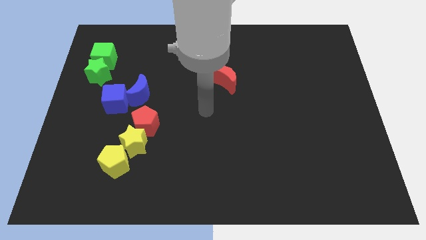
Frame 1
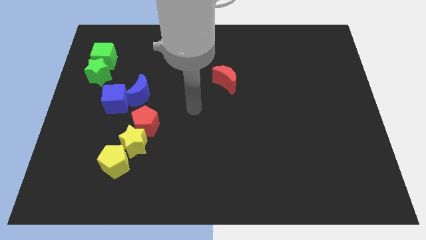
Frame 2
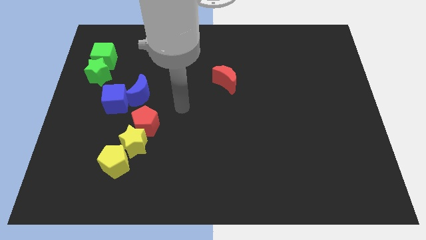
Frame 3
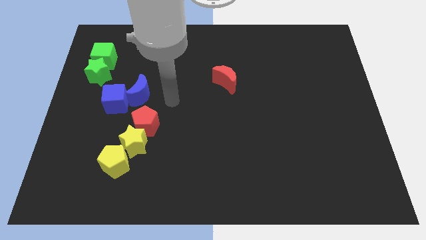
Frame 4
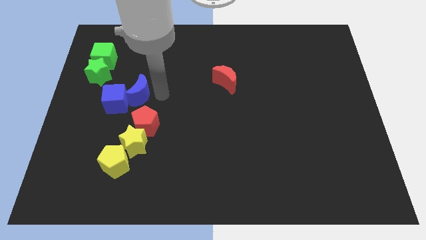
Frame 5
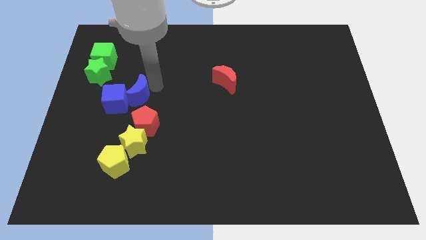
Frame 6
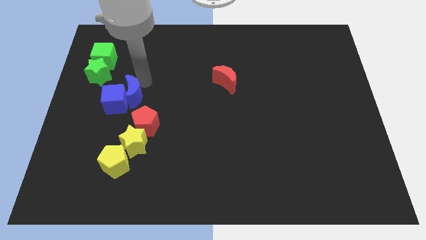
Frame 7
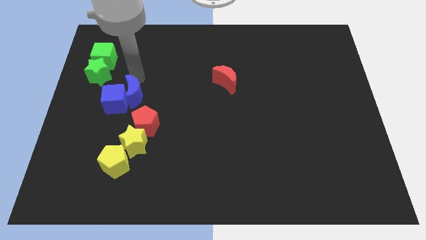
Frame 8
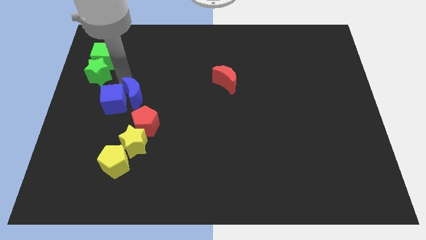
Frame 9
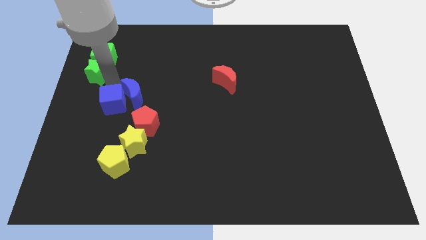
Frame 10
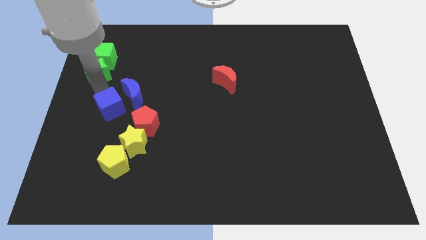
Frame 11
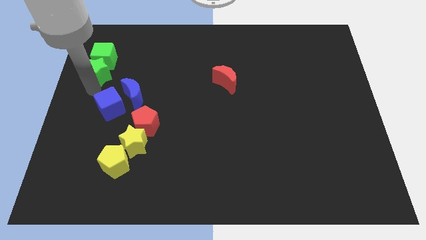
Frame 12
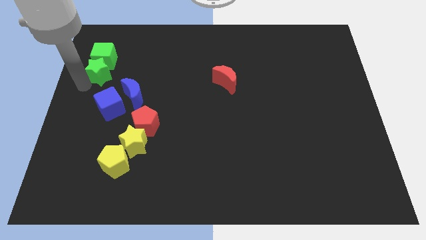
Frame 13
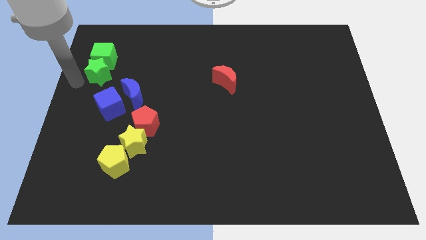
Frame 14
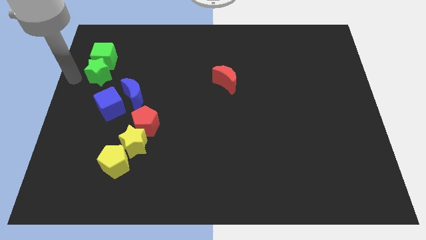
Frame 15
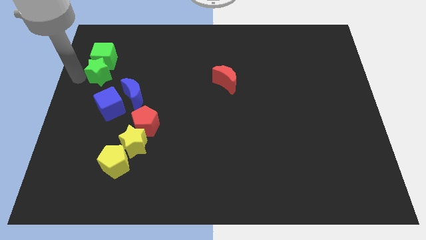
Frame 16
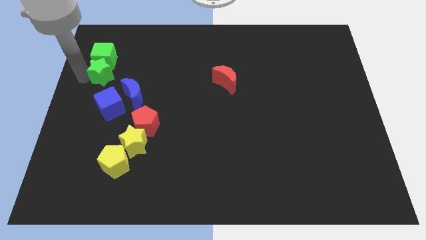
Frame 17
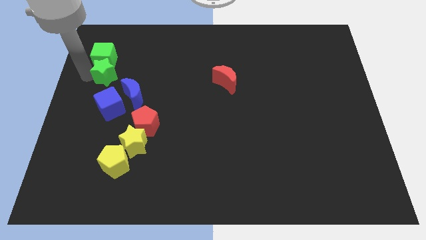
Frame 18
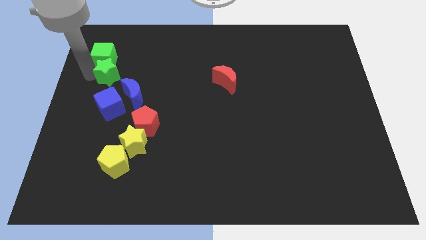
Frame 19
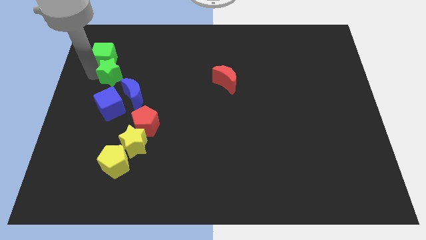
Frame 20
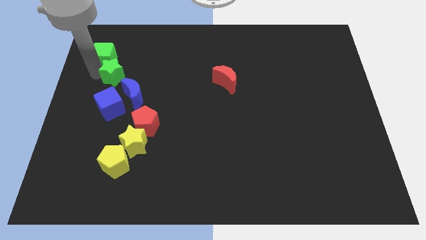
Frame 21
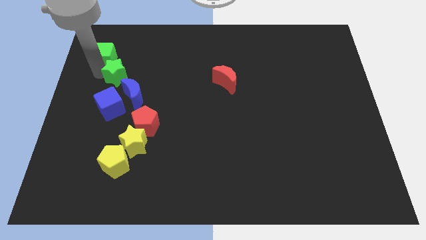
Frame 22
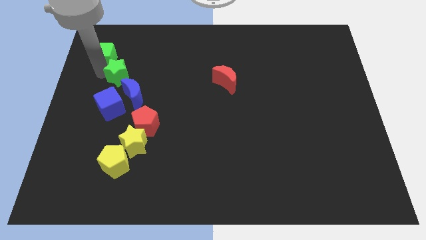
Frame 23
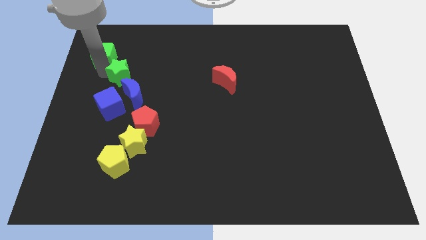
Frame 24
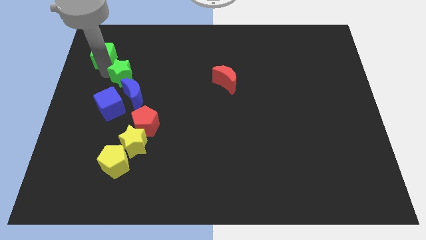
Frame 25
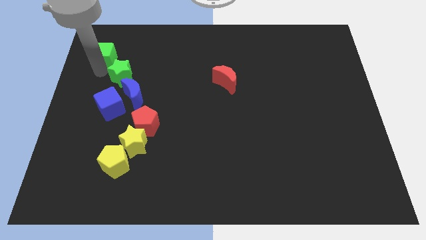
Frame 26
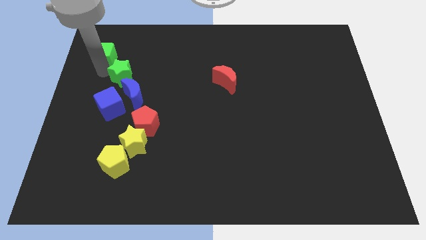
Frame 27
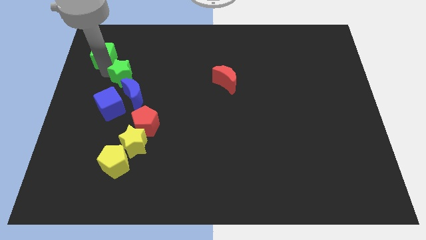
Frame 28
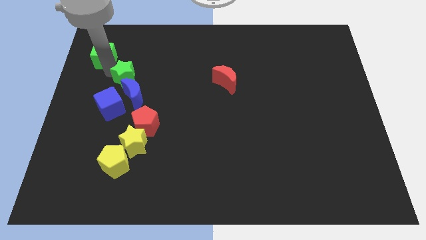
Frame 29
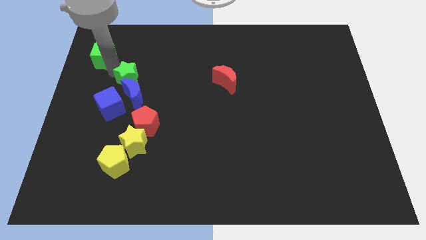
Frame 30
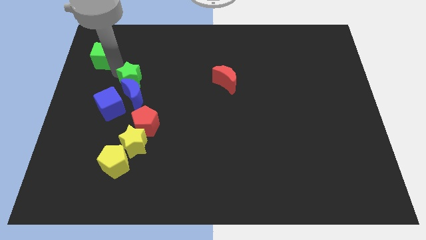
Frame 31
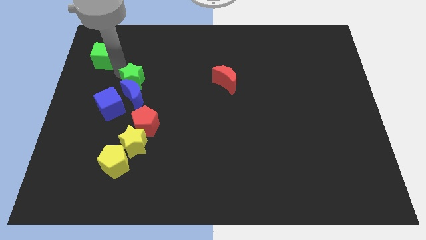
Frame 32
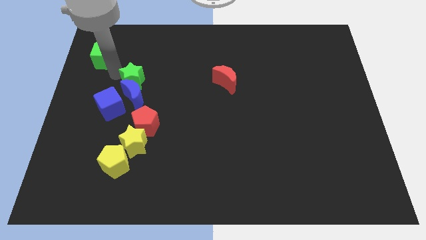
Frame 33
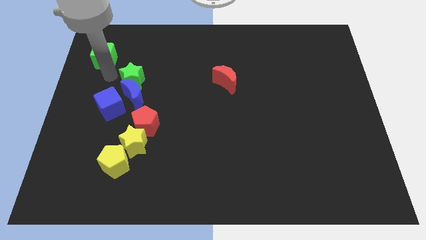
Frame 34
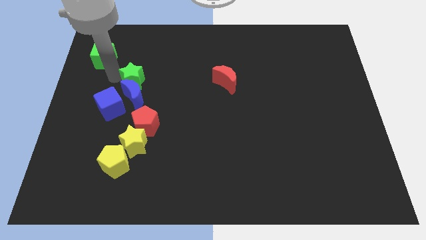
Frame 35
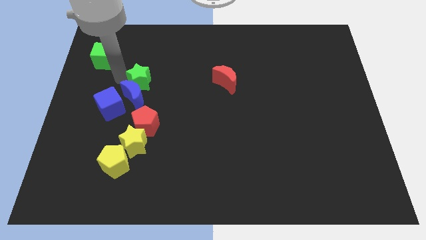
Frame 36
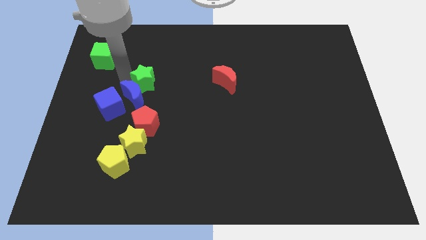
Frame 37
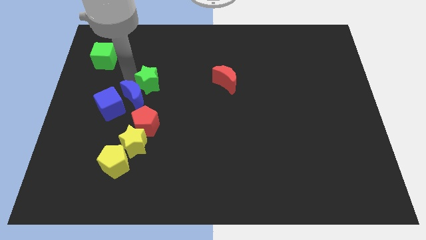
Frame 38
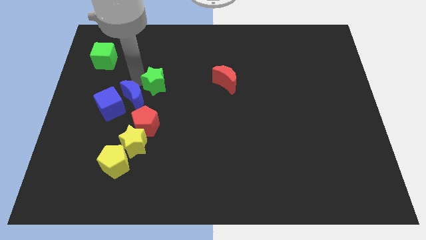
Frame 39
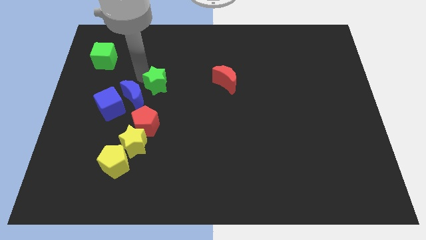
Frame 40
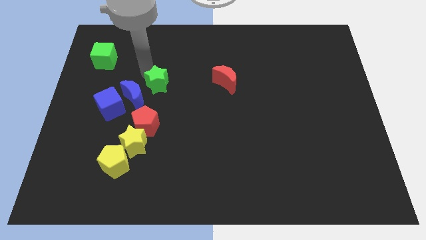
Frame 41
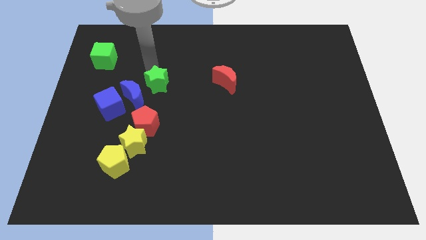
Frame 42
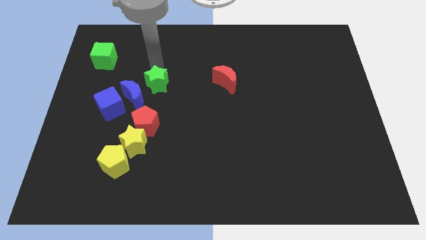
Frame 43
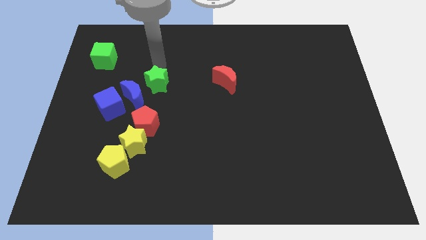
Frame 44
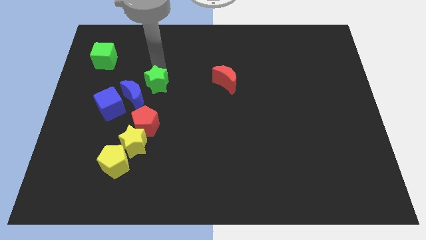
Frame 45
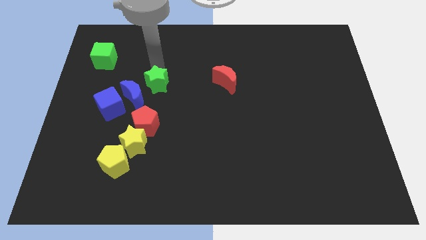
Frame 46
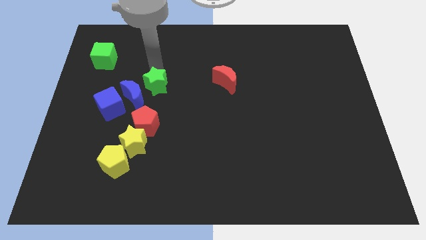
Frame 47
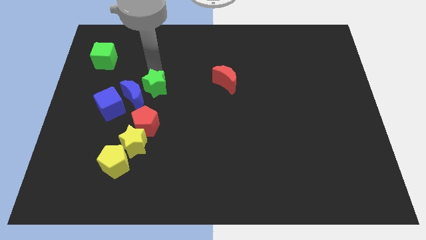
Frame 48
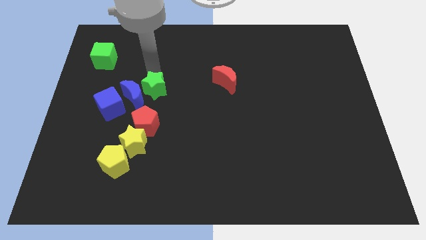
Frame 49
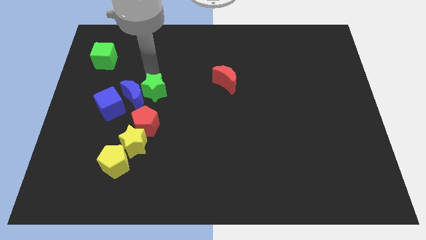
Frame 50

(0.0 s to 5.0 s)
put the green star just right of the blue cube

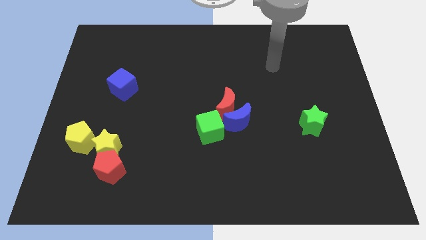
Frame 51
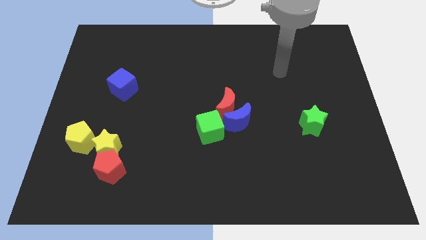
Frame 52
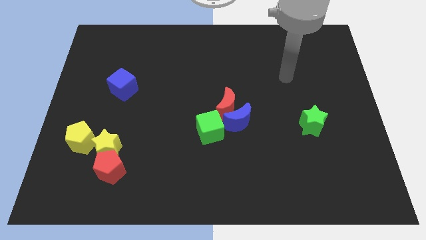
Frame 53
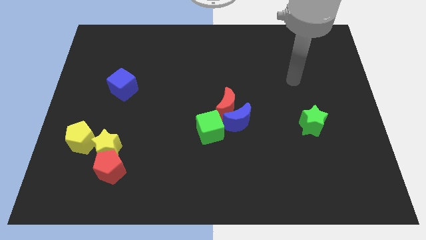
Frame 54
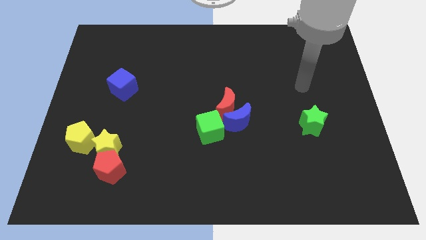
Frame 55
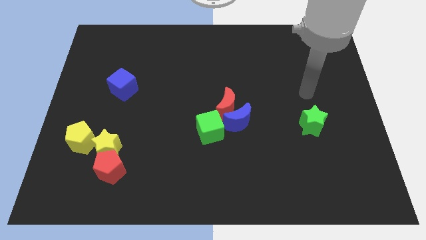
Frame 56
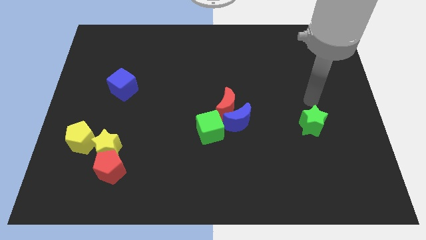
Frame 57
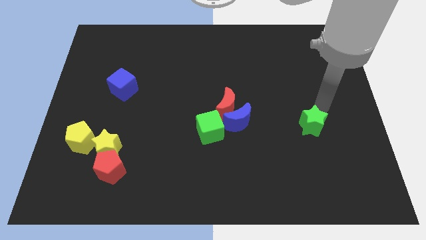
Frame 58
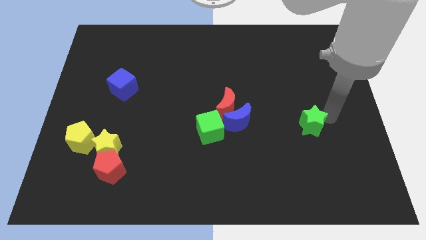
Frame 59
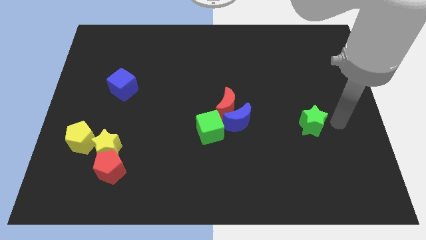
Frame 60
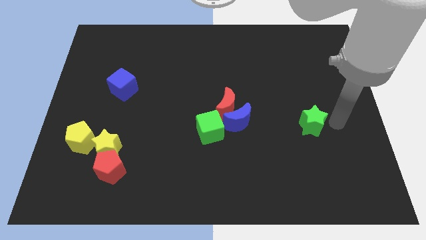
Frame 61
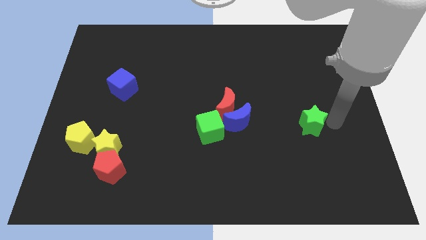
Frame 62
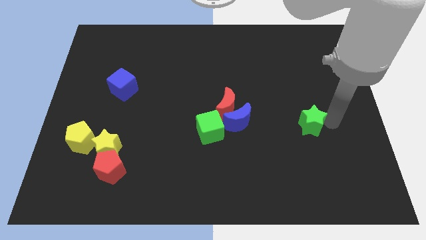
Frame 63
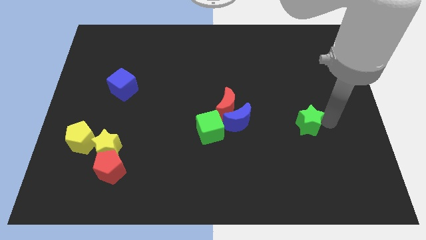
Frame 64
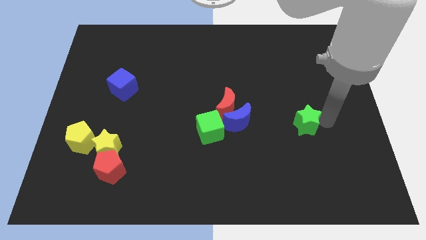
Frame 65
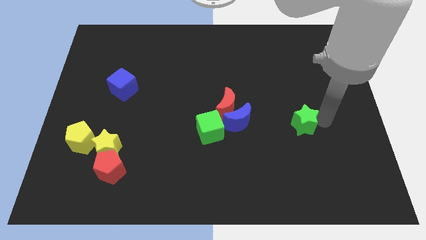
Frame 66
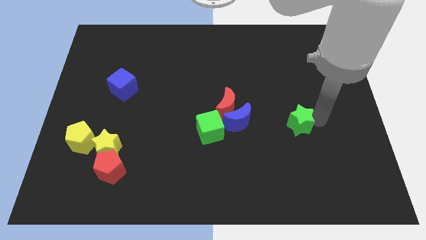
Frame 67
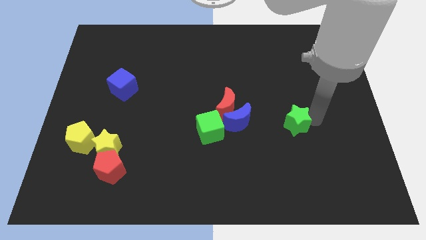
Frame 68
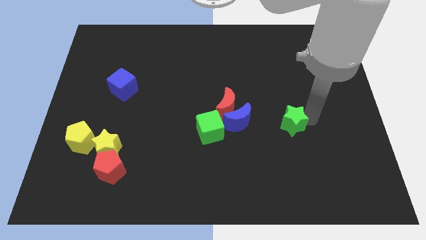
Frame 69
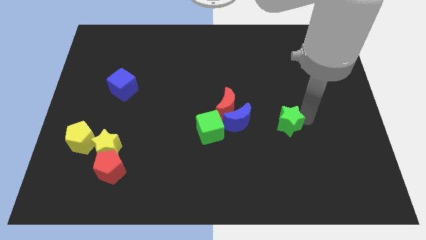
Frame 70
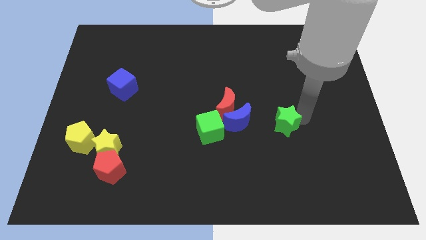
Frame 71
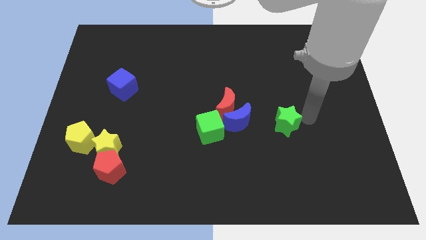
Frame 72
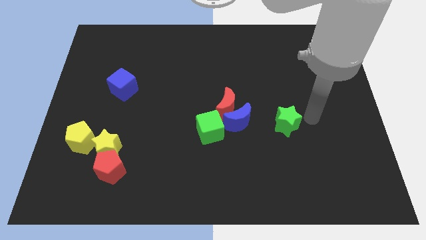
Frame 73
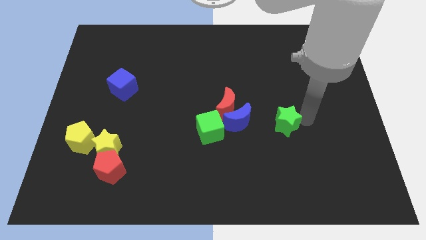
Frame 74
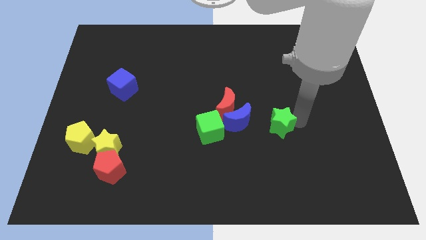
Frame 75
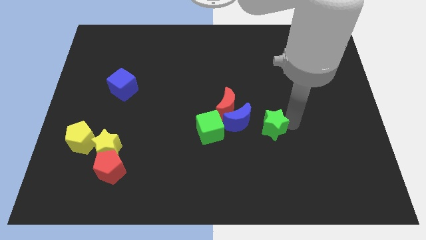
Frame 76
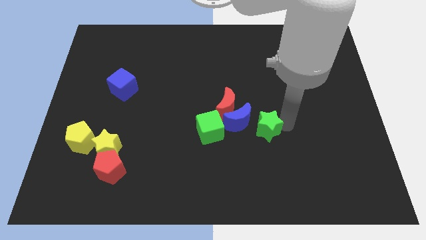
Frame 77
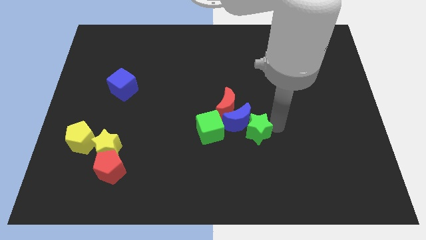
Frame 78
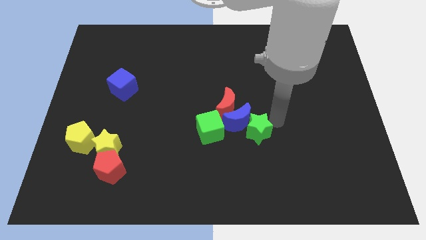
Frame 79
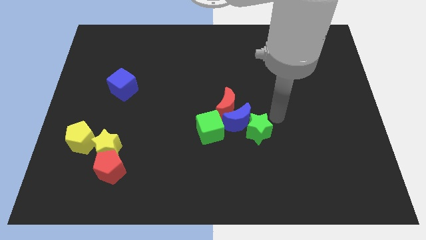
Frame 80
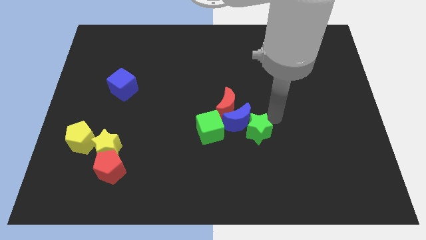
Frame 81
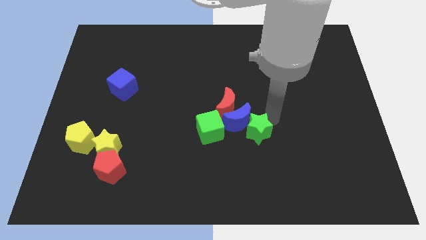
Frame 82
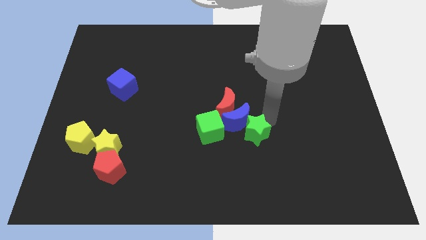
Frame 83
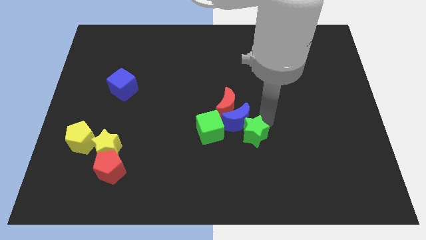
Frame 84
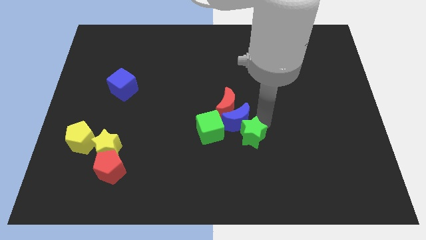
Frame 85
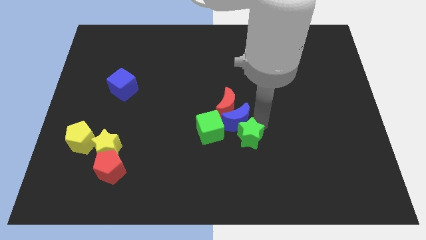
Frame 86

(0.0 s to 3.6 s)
move the green star to the bottom right side of the green cube
